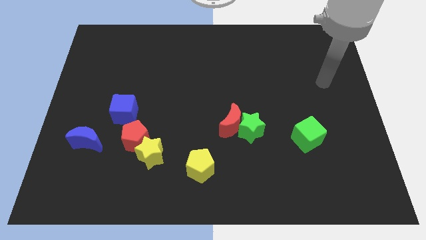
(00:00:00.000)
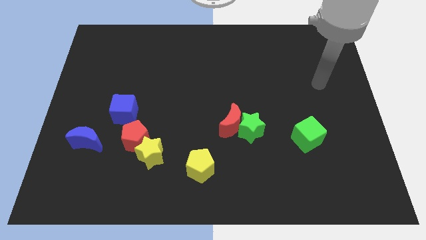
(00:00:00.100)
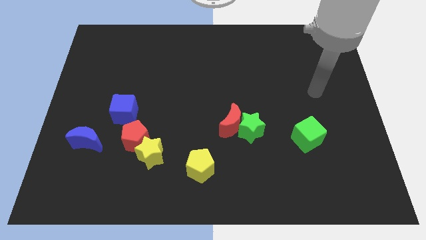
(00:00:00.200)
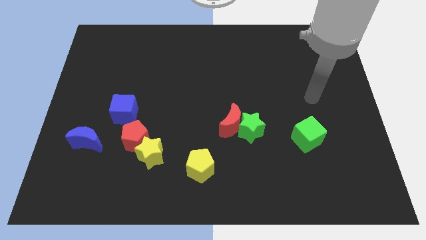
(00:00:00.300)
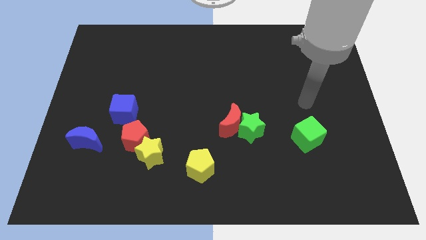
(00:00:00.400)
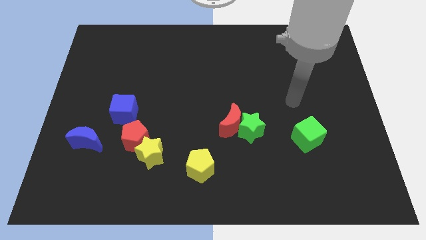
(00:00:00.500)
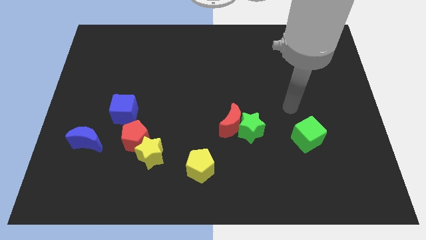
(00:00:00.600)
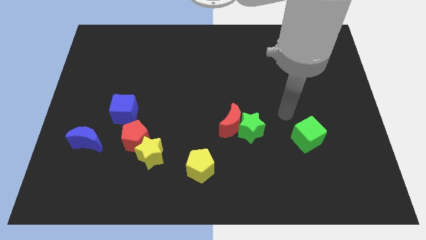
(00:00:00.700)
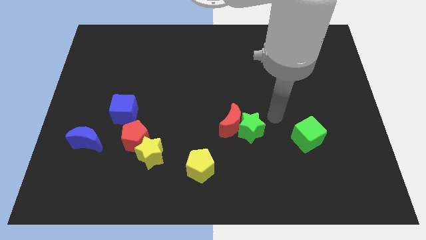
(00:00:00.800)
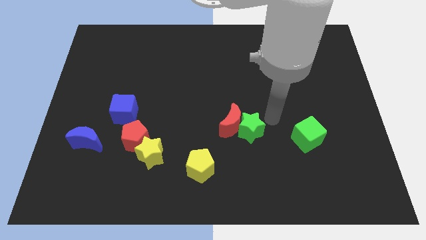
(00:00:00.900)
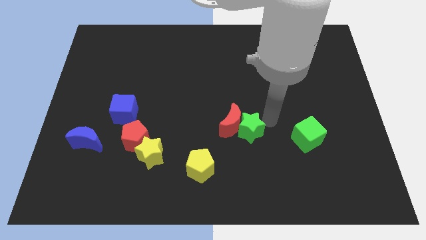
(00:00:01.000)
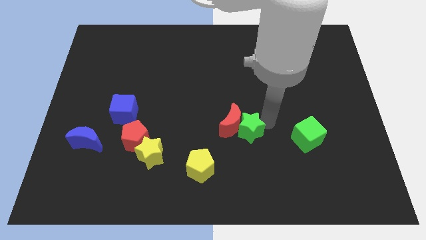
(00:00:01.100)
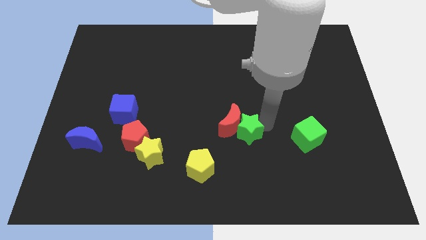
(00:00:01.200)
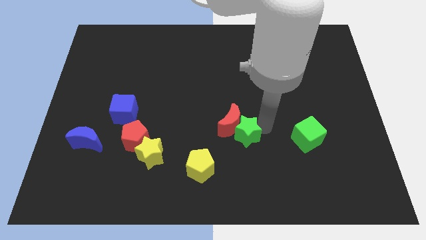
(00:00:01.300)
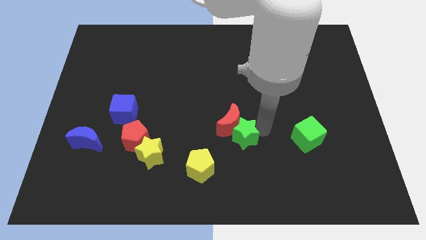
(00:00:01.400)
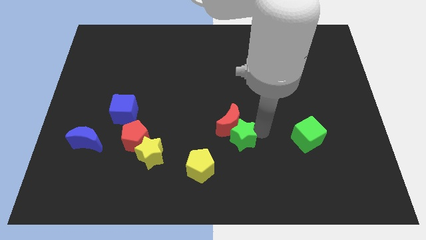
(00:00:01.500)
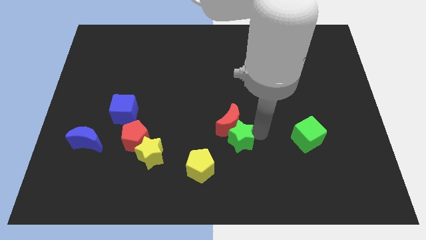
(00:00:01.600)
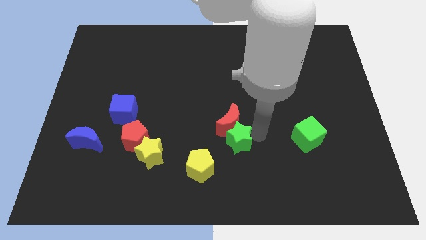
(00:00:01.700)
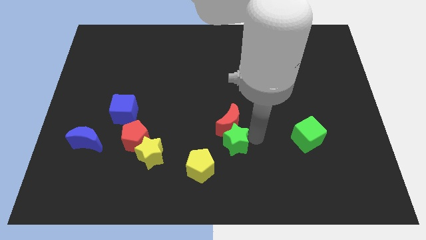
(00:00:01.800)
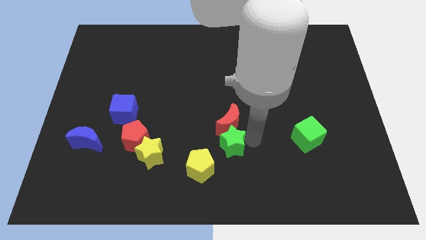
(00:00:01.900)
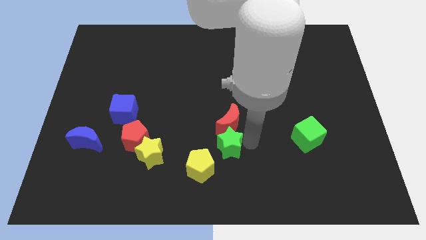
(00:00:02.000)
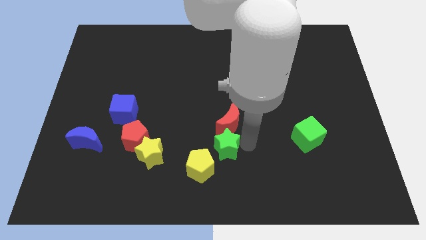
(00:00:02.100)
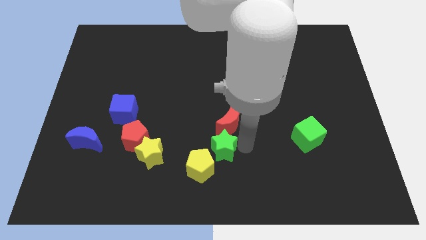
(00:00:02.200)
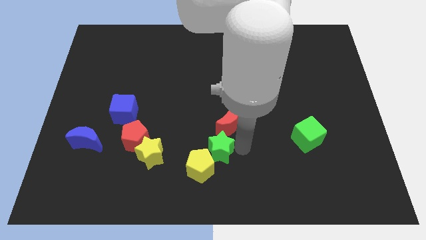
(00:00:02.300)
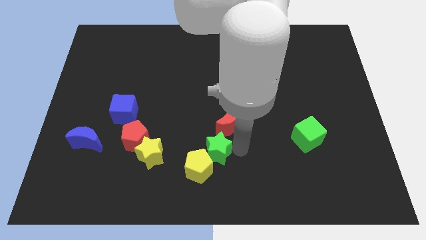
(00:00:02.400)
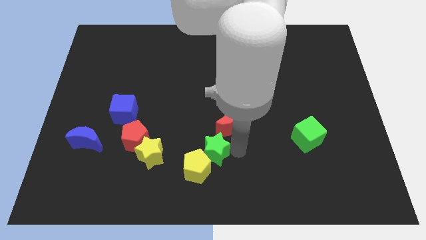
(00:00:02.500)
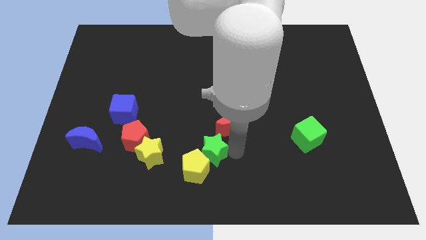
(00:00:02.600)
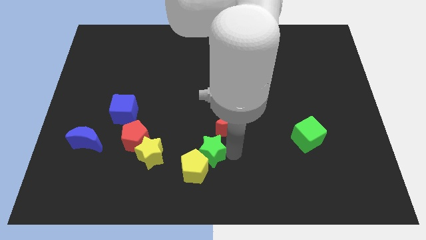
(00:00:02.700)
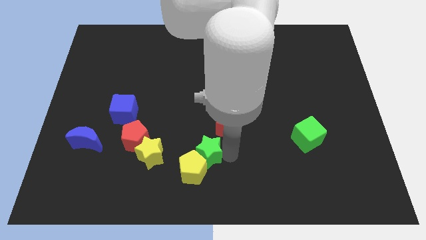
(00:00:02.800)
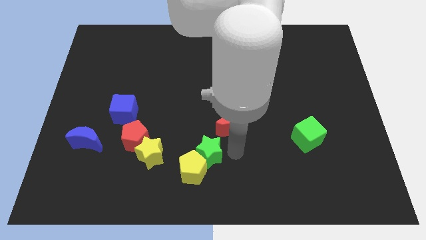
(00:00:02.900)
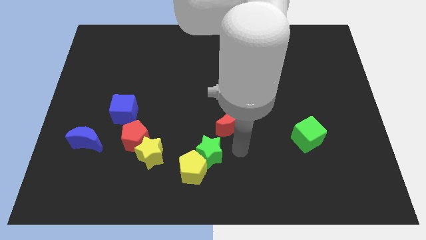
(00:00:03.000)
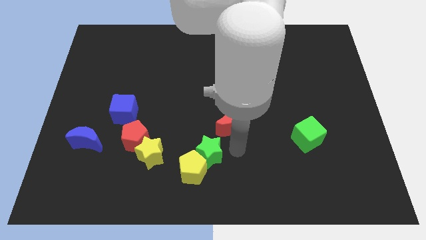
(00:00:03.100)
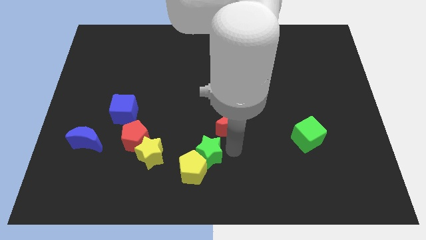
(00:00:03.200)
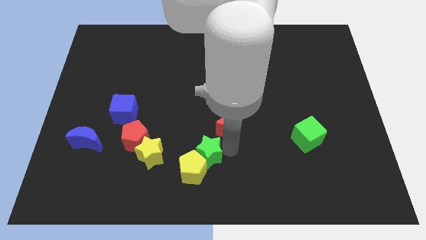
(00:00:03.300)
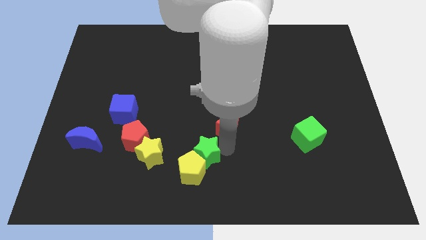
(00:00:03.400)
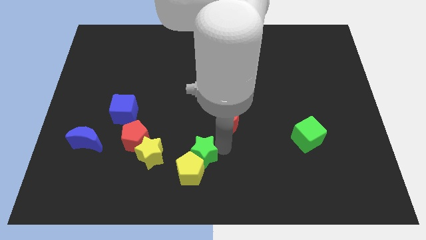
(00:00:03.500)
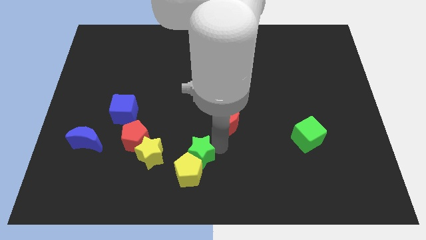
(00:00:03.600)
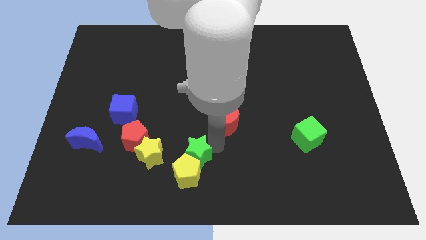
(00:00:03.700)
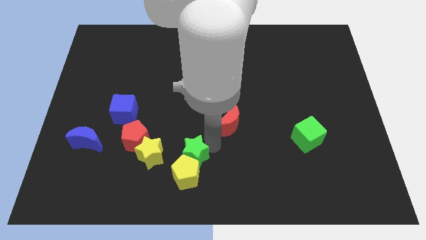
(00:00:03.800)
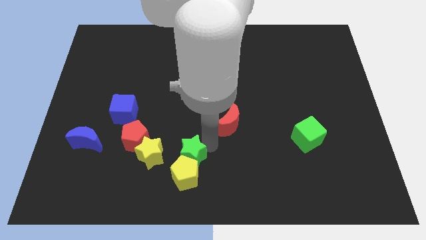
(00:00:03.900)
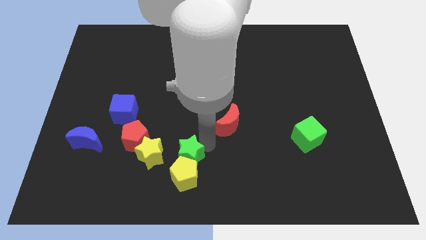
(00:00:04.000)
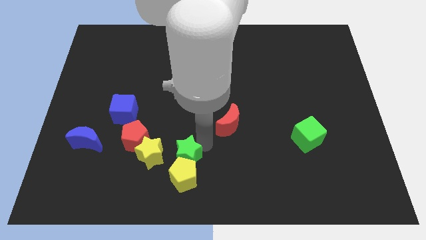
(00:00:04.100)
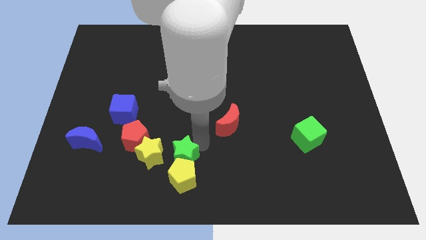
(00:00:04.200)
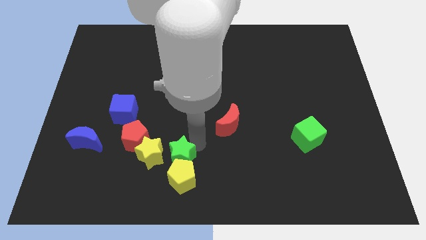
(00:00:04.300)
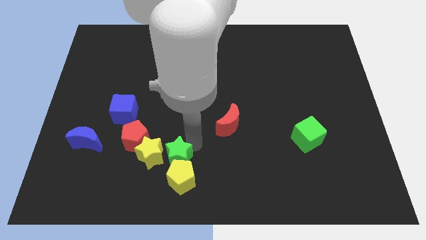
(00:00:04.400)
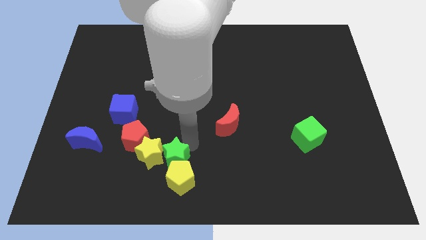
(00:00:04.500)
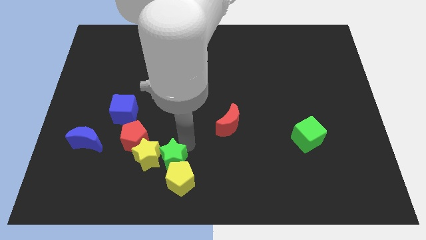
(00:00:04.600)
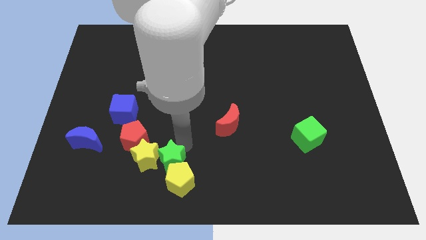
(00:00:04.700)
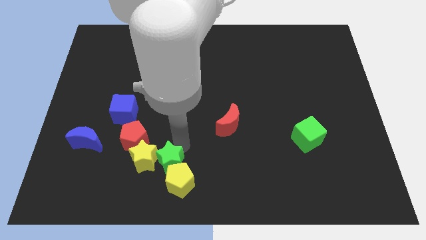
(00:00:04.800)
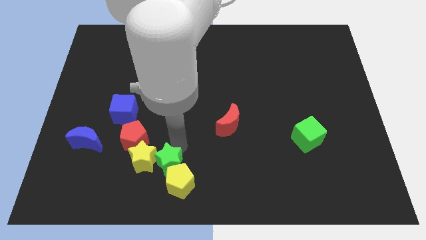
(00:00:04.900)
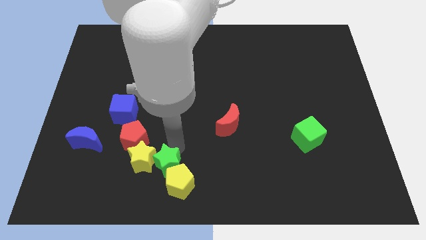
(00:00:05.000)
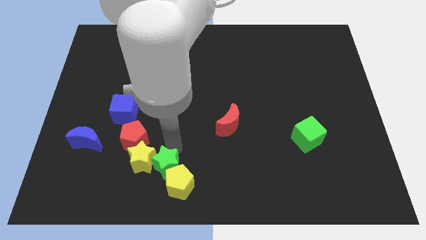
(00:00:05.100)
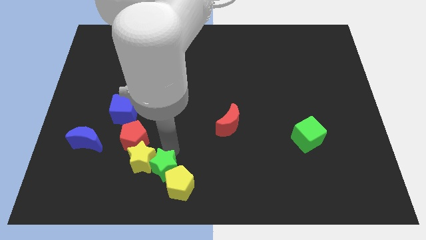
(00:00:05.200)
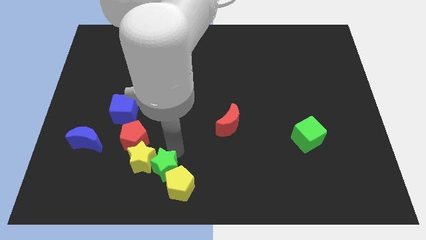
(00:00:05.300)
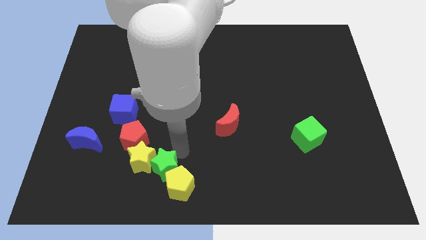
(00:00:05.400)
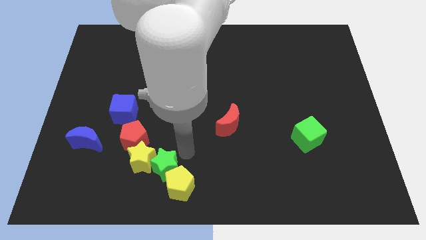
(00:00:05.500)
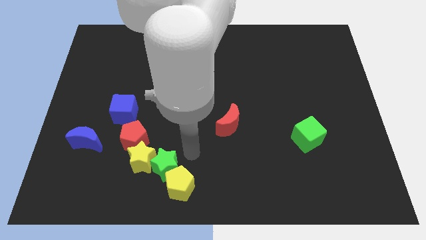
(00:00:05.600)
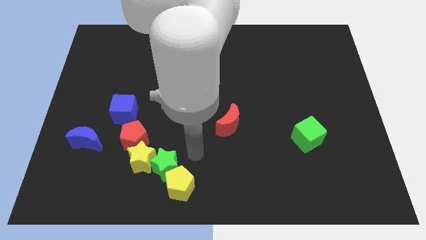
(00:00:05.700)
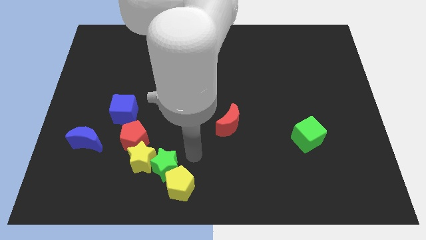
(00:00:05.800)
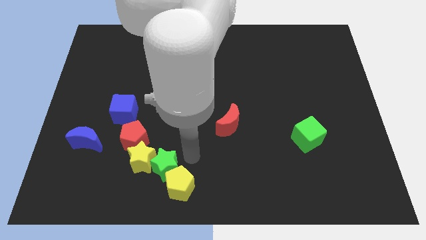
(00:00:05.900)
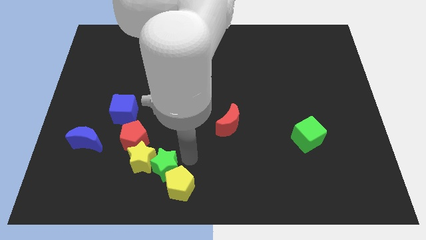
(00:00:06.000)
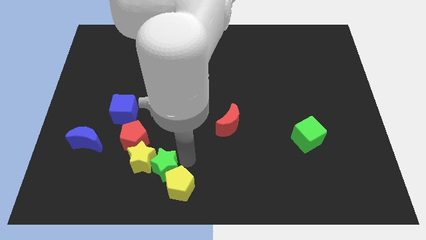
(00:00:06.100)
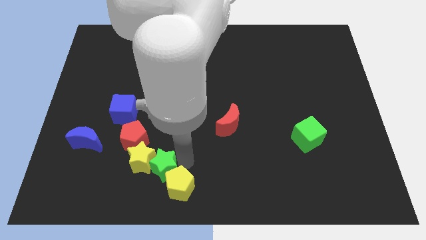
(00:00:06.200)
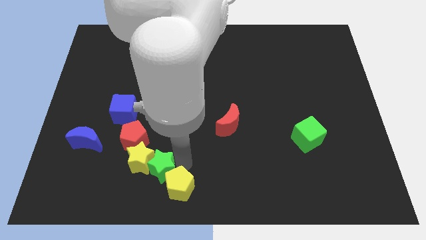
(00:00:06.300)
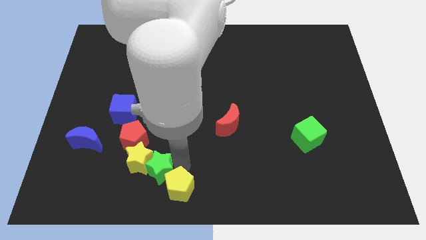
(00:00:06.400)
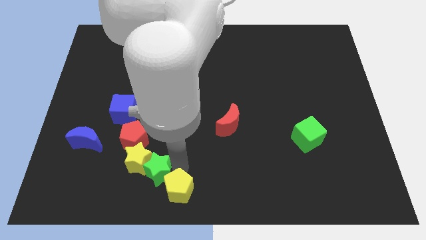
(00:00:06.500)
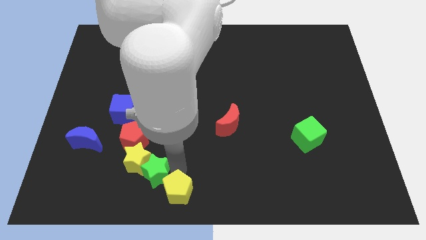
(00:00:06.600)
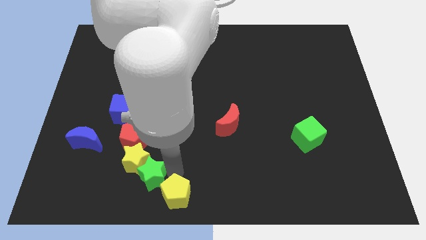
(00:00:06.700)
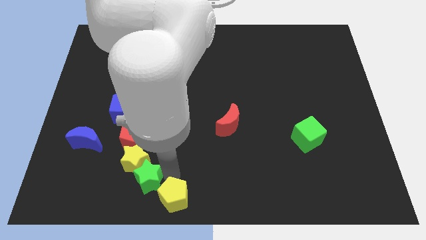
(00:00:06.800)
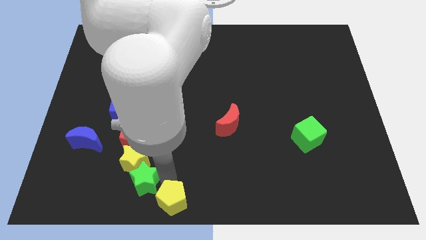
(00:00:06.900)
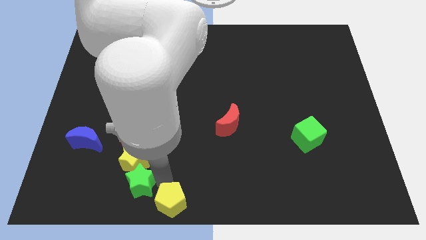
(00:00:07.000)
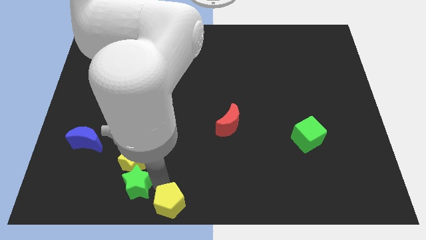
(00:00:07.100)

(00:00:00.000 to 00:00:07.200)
push the green star to the bottom left of the yellow star
